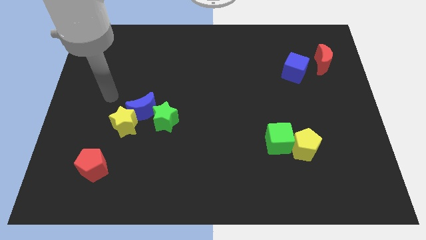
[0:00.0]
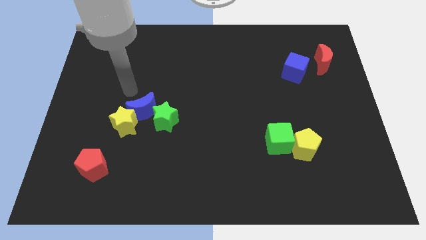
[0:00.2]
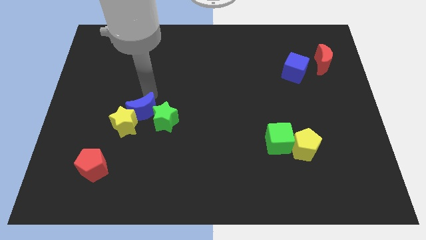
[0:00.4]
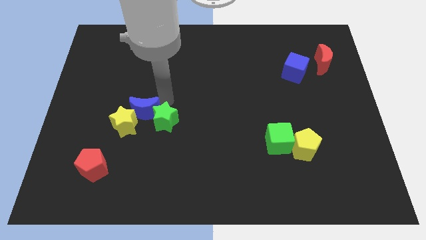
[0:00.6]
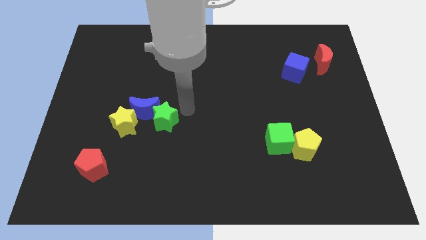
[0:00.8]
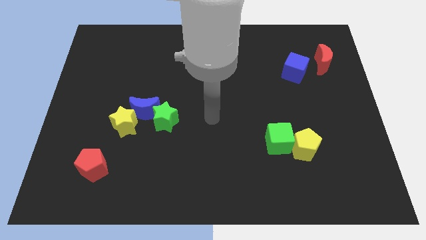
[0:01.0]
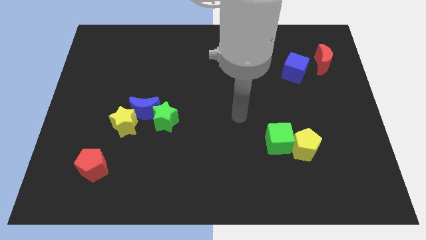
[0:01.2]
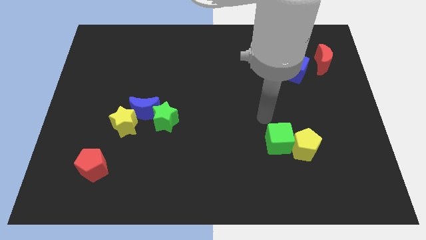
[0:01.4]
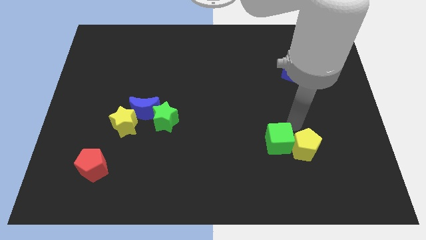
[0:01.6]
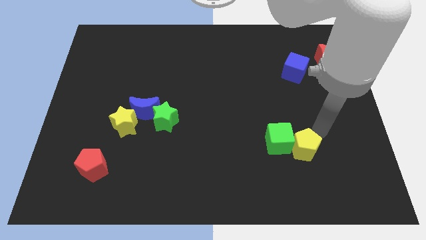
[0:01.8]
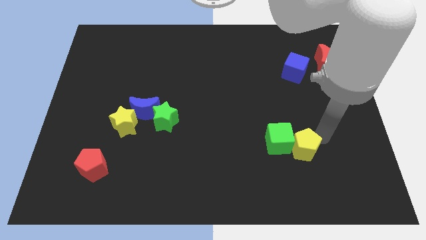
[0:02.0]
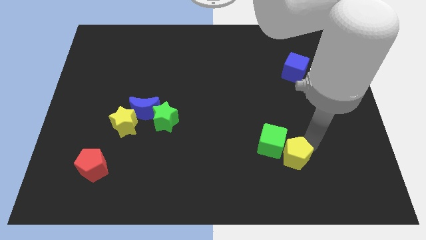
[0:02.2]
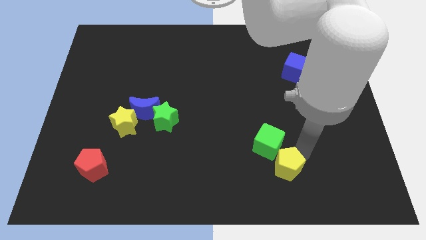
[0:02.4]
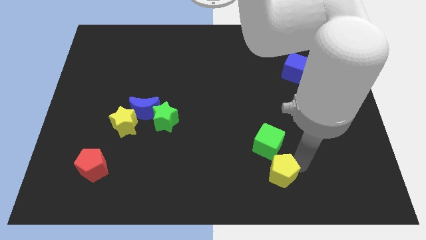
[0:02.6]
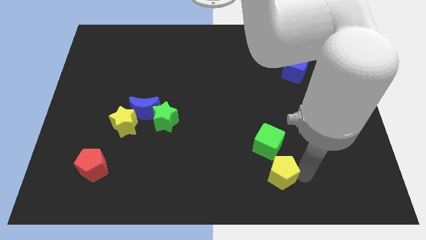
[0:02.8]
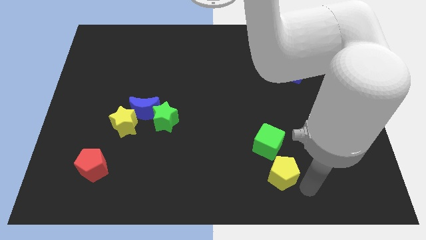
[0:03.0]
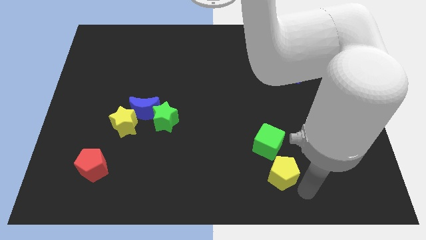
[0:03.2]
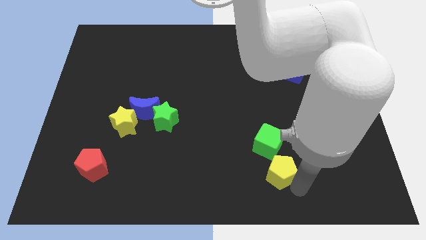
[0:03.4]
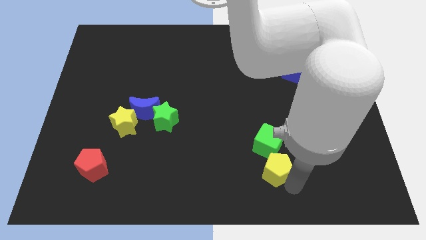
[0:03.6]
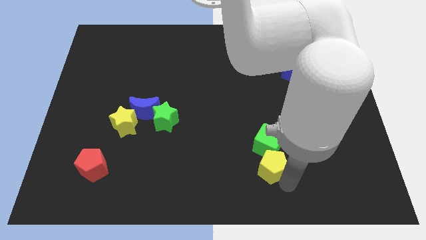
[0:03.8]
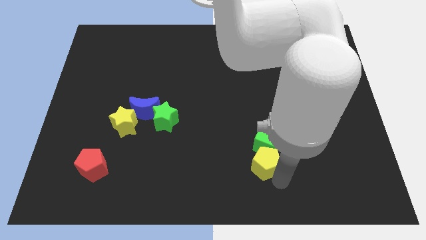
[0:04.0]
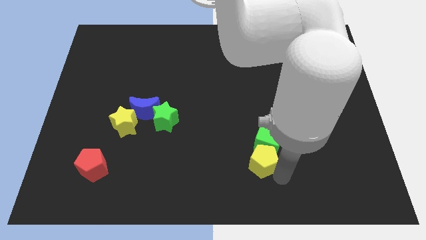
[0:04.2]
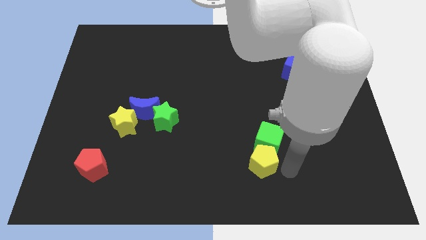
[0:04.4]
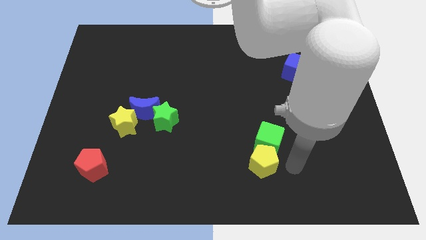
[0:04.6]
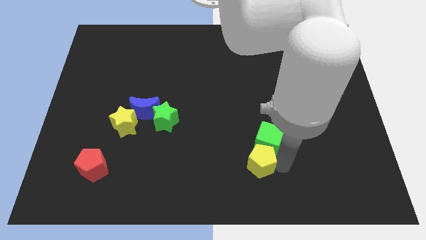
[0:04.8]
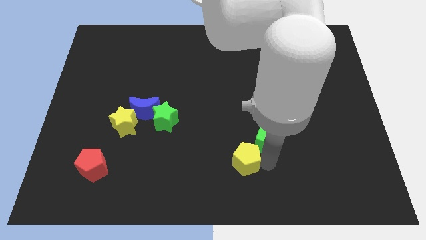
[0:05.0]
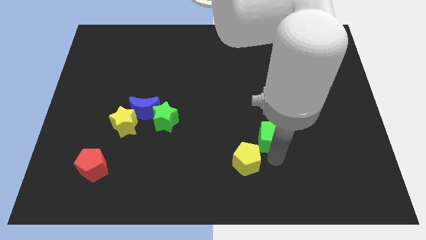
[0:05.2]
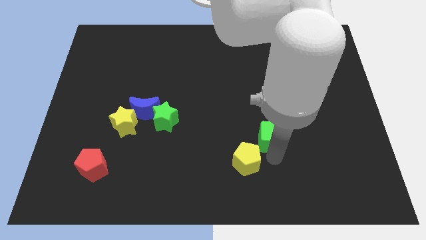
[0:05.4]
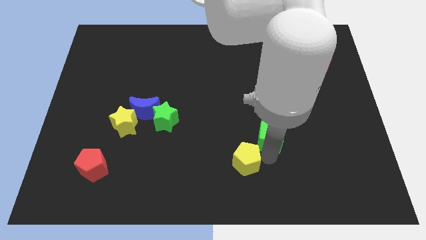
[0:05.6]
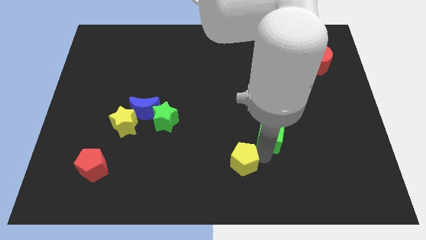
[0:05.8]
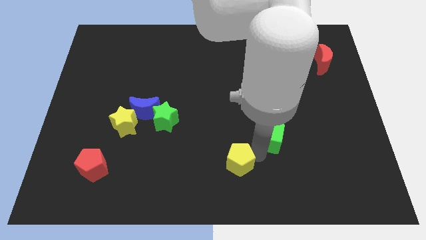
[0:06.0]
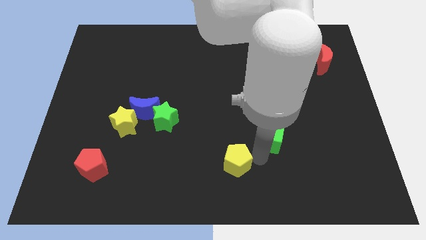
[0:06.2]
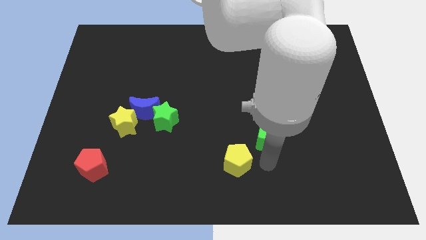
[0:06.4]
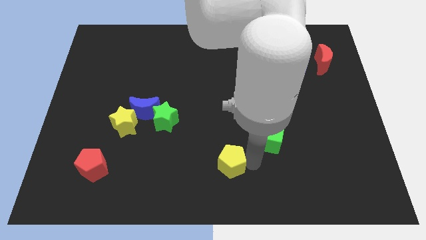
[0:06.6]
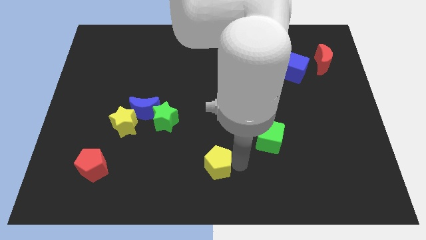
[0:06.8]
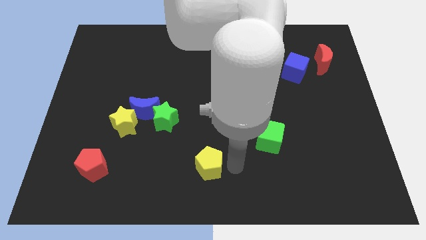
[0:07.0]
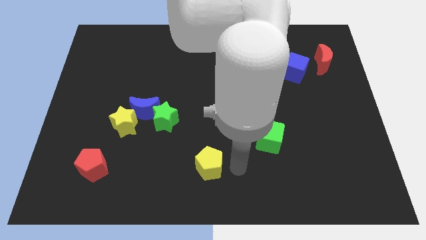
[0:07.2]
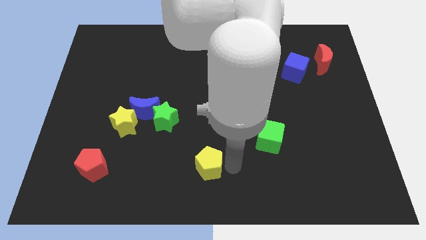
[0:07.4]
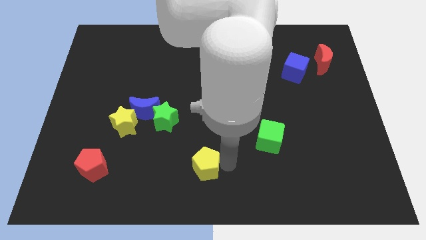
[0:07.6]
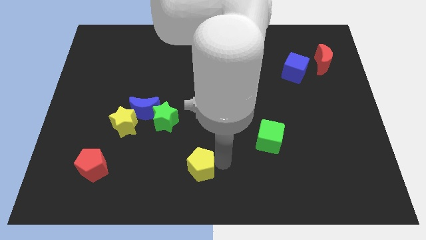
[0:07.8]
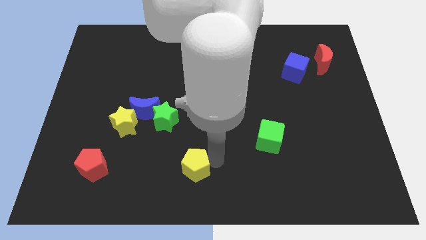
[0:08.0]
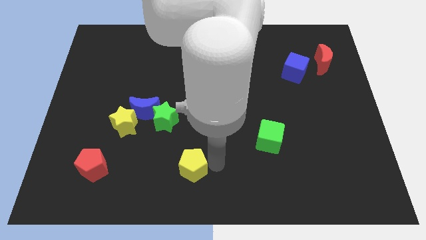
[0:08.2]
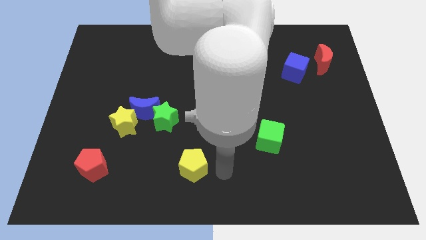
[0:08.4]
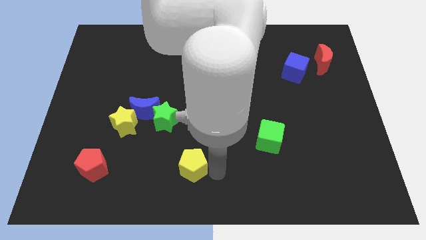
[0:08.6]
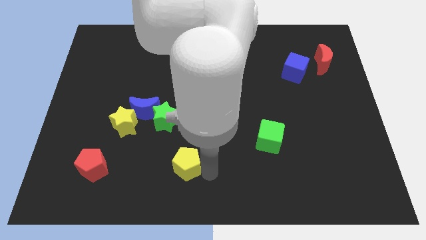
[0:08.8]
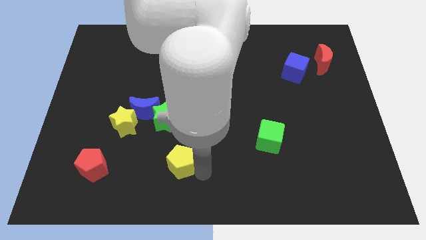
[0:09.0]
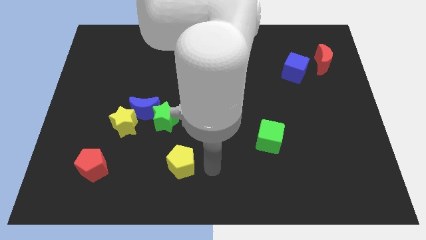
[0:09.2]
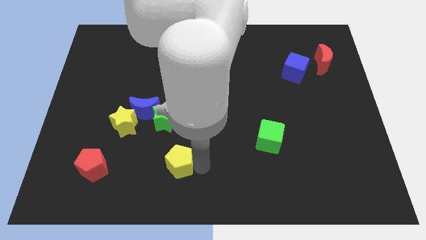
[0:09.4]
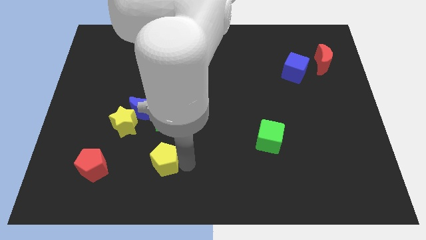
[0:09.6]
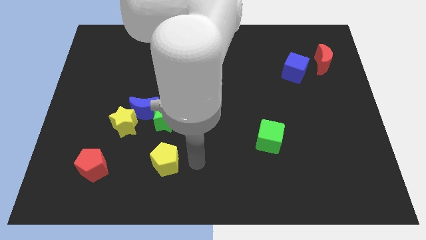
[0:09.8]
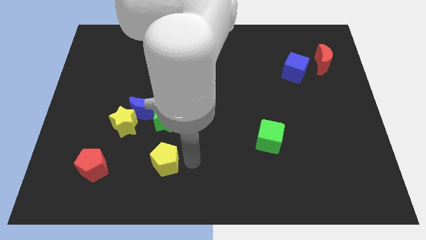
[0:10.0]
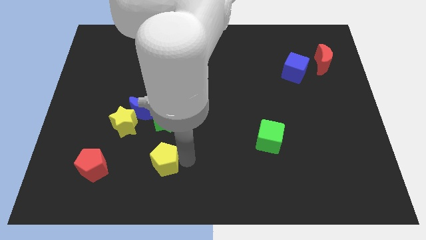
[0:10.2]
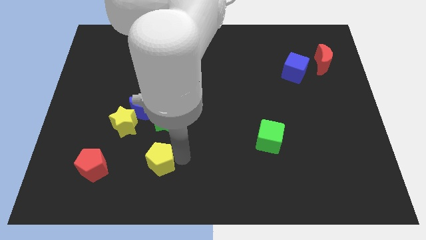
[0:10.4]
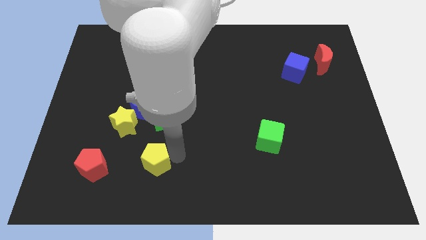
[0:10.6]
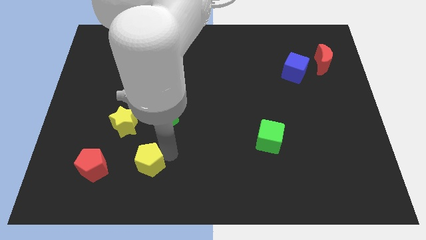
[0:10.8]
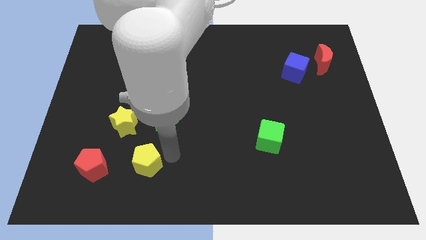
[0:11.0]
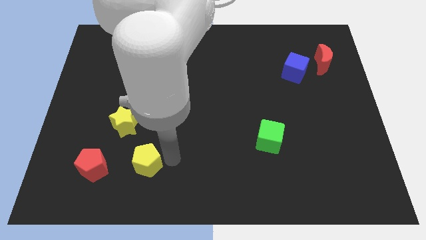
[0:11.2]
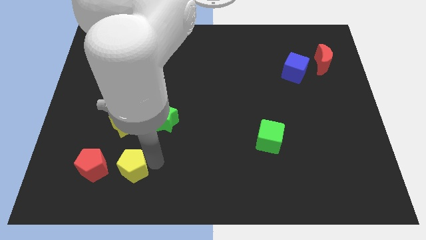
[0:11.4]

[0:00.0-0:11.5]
push the yellow pentagon to the bottom of the yellow star

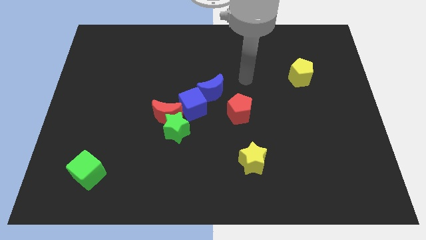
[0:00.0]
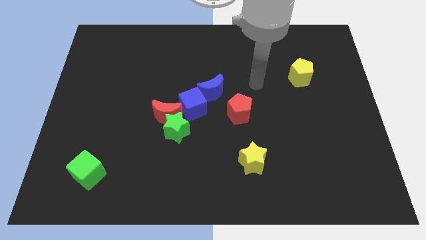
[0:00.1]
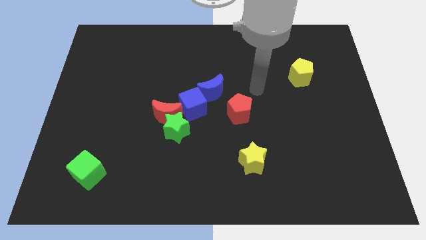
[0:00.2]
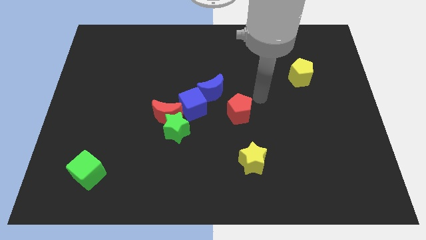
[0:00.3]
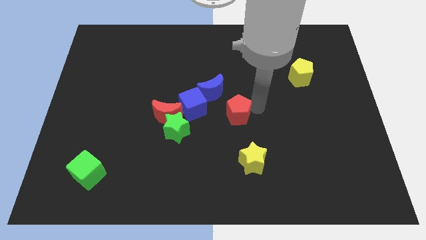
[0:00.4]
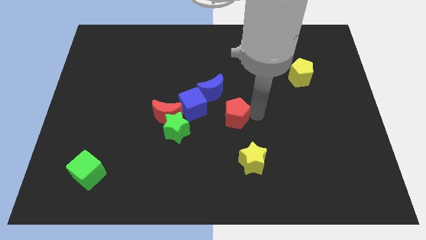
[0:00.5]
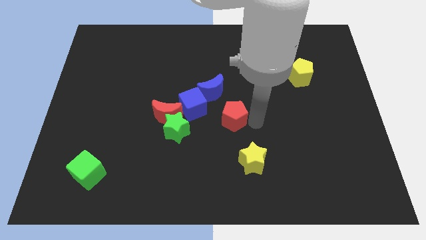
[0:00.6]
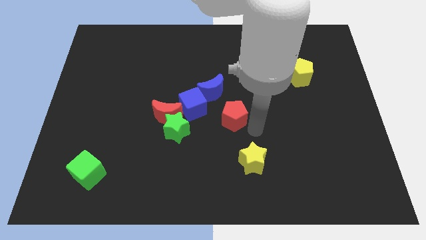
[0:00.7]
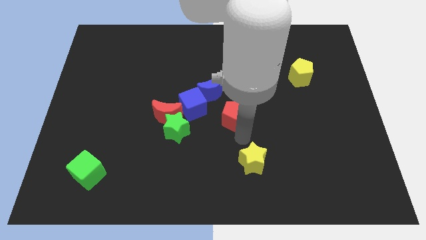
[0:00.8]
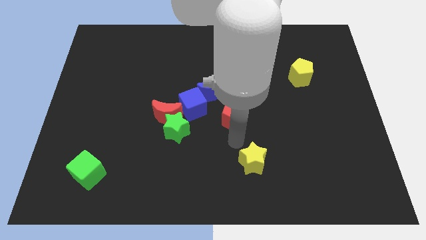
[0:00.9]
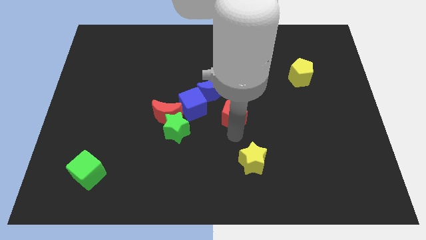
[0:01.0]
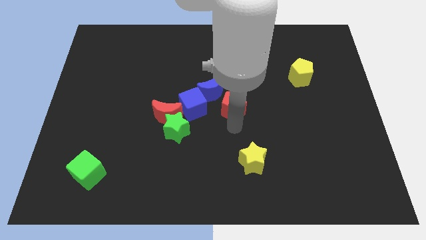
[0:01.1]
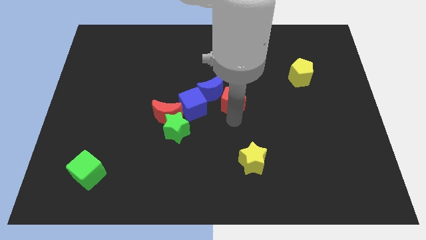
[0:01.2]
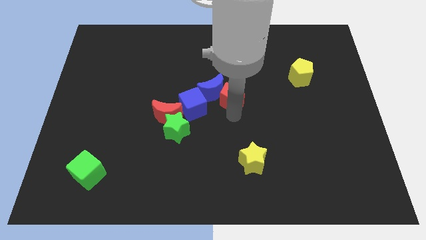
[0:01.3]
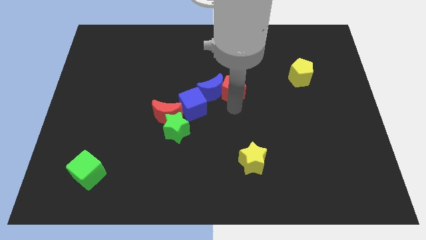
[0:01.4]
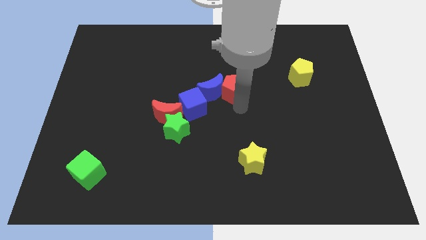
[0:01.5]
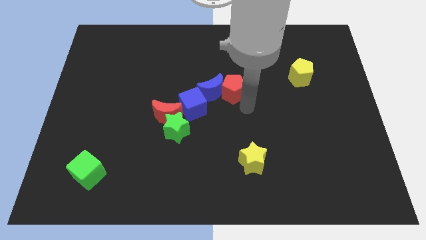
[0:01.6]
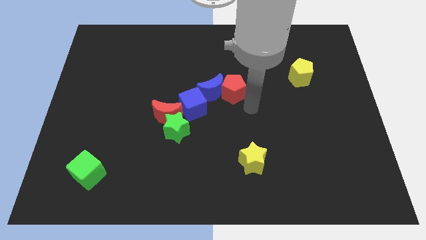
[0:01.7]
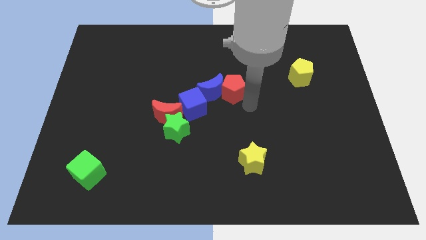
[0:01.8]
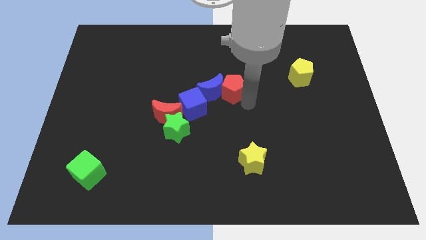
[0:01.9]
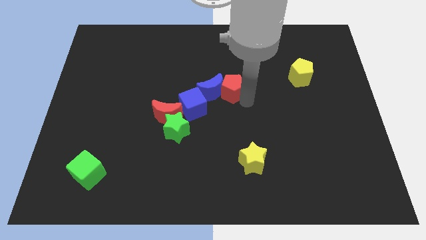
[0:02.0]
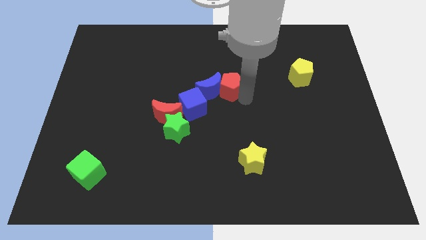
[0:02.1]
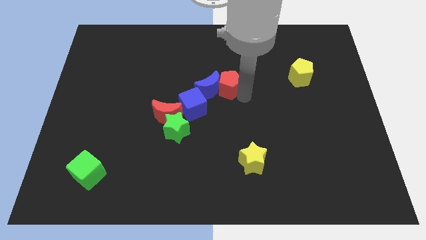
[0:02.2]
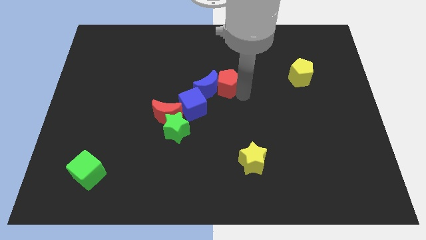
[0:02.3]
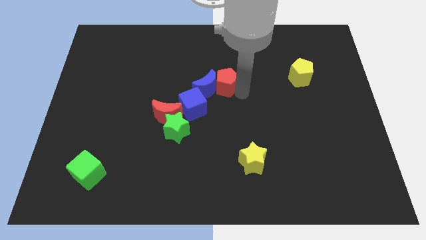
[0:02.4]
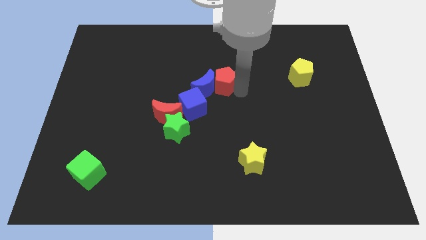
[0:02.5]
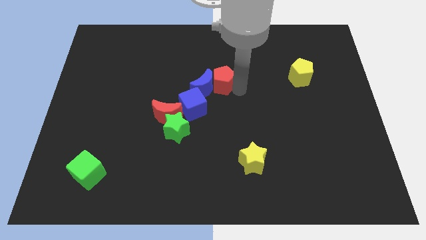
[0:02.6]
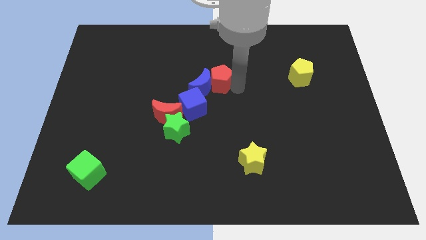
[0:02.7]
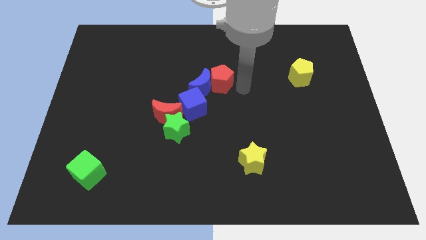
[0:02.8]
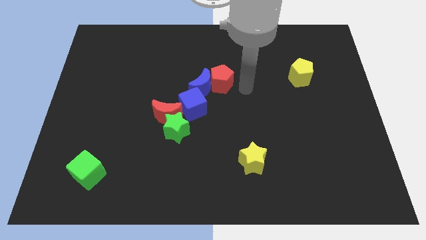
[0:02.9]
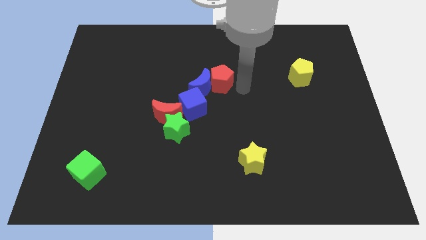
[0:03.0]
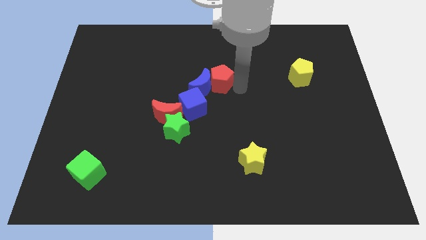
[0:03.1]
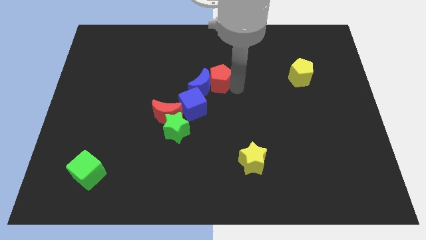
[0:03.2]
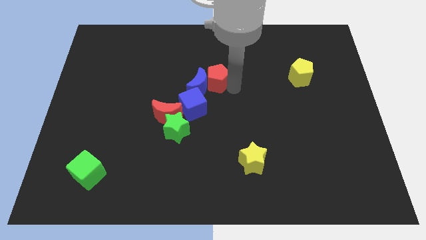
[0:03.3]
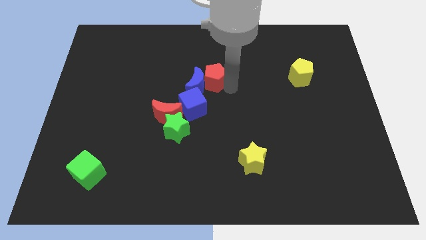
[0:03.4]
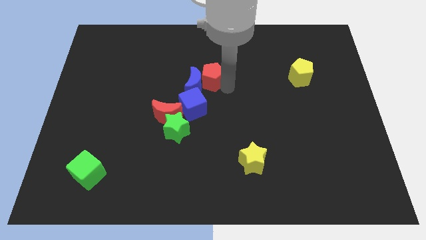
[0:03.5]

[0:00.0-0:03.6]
push the red pentagon to the top side of the blue cube
